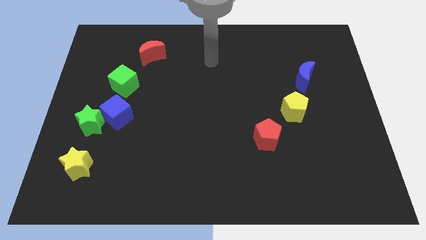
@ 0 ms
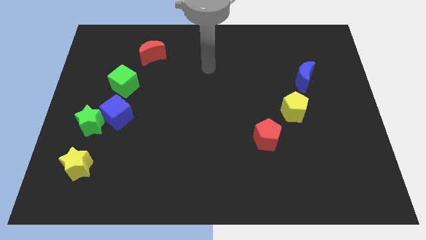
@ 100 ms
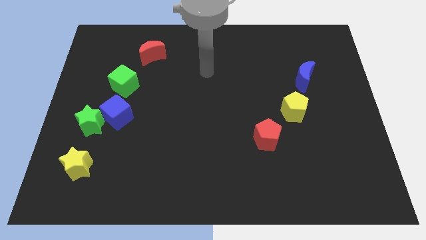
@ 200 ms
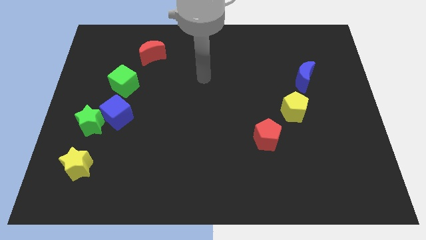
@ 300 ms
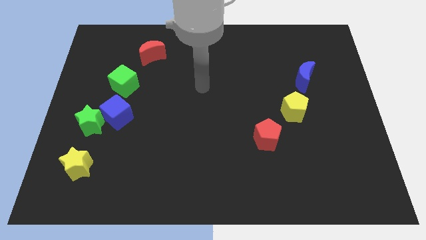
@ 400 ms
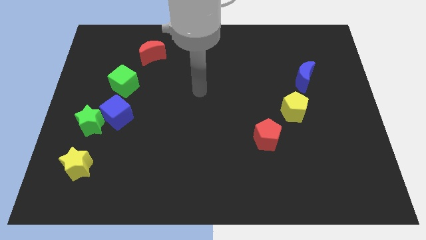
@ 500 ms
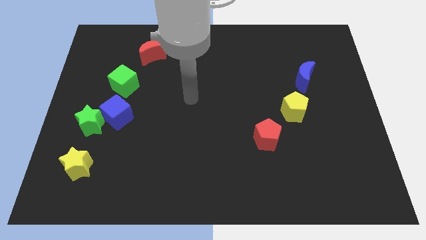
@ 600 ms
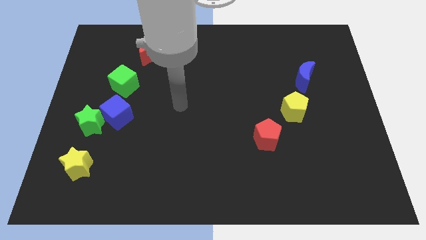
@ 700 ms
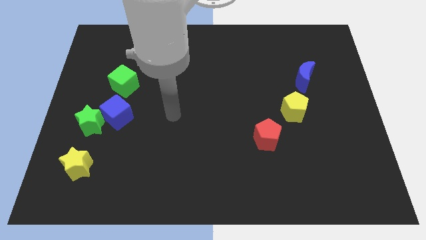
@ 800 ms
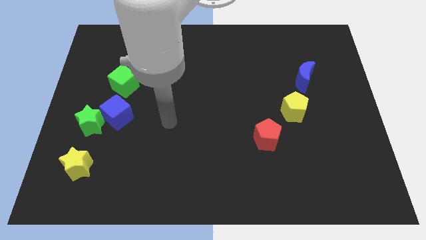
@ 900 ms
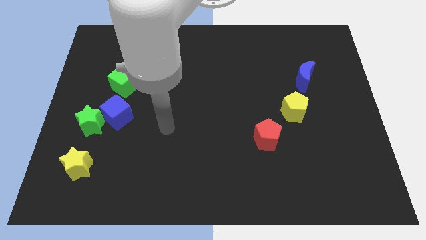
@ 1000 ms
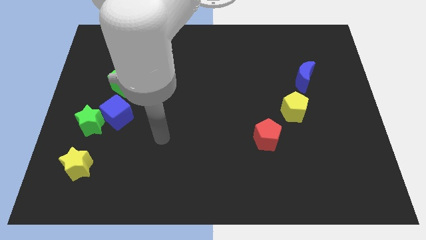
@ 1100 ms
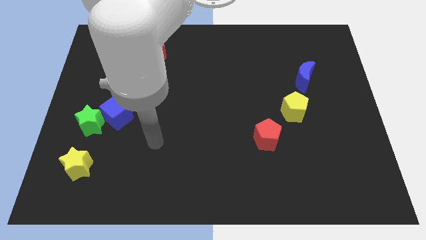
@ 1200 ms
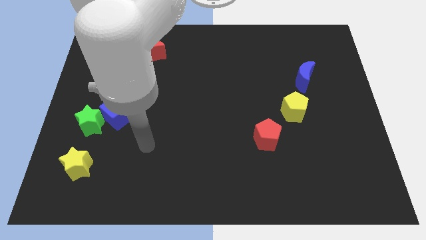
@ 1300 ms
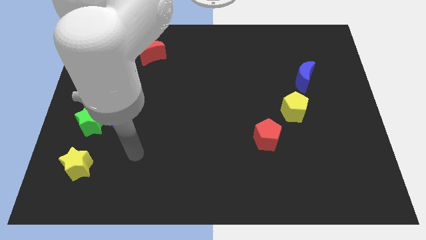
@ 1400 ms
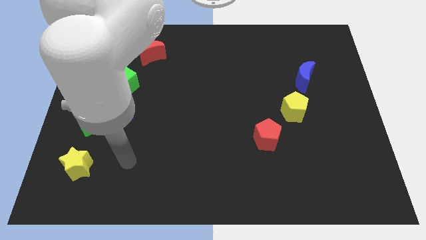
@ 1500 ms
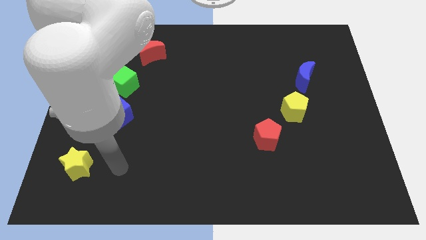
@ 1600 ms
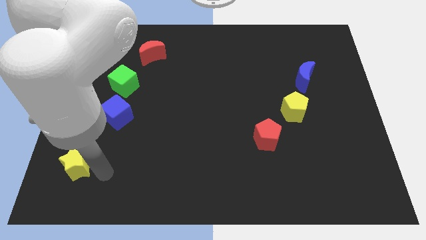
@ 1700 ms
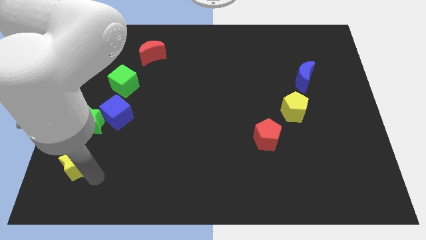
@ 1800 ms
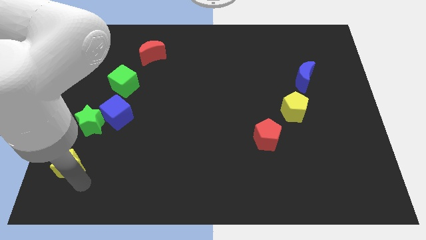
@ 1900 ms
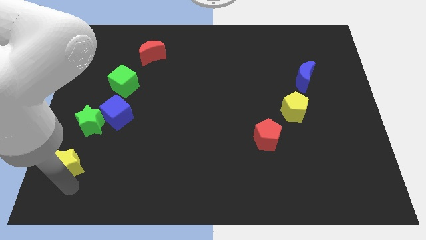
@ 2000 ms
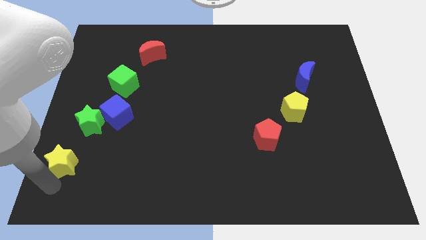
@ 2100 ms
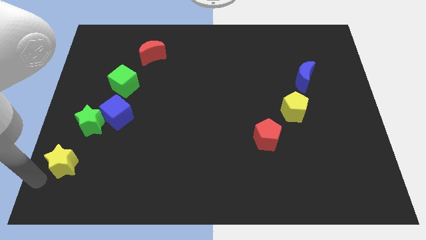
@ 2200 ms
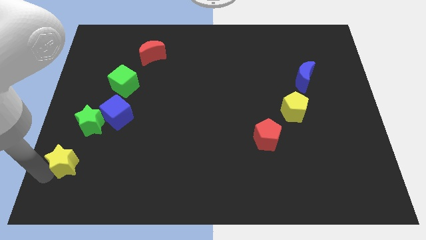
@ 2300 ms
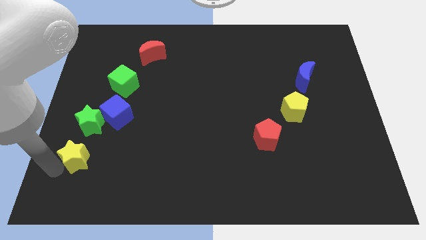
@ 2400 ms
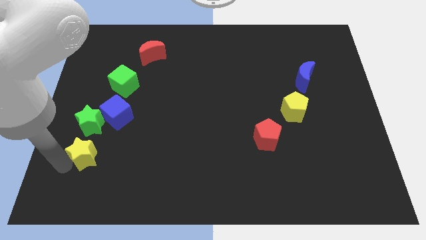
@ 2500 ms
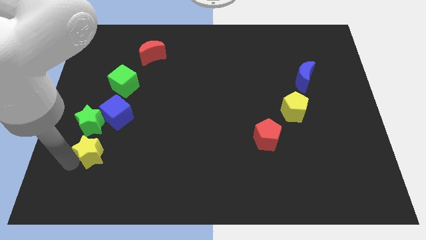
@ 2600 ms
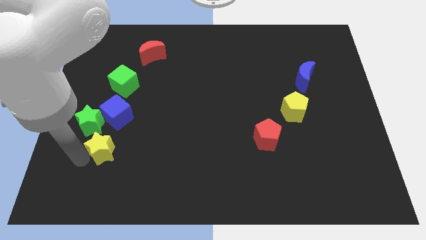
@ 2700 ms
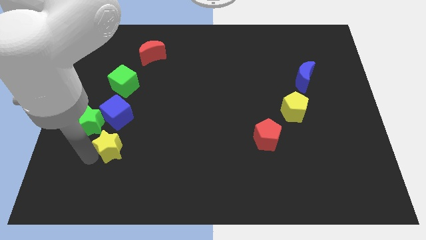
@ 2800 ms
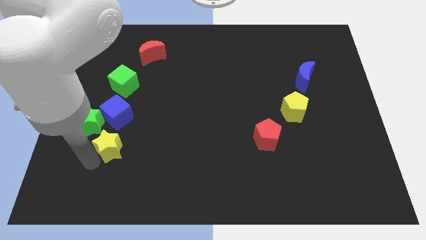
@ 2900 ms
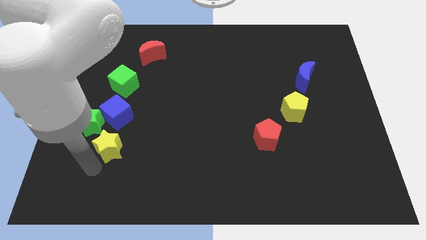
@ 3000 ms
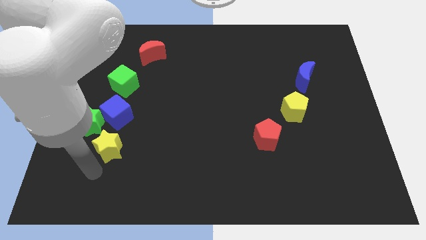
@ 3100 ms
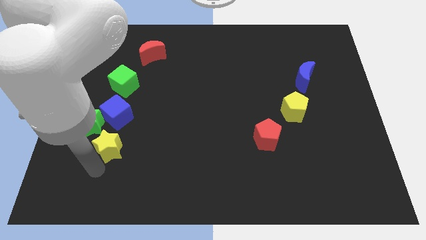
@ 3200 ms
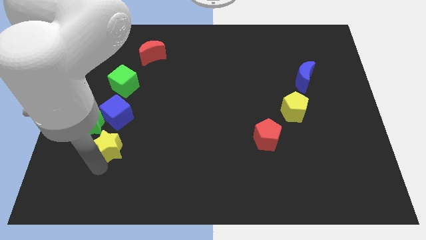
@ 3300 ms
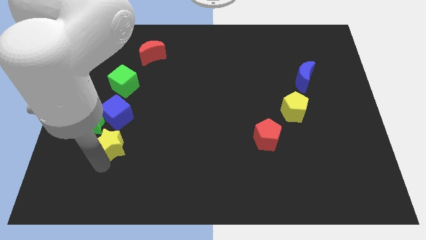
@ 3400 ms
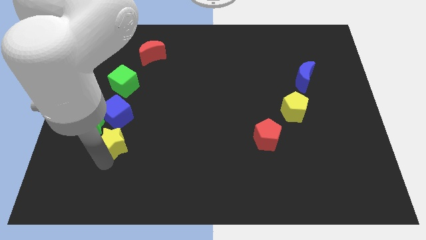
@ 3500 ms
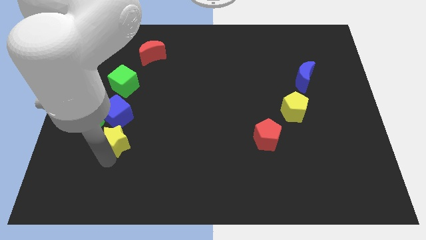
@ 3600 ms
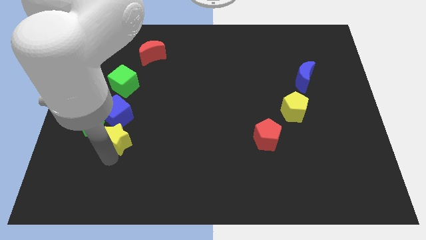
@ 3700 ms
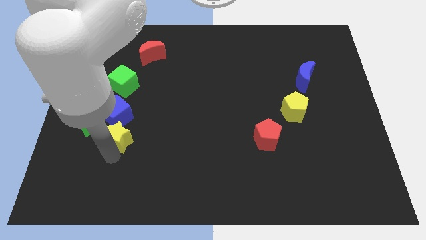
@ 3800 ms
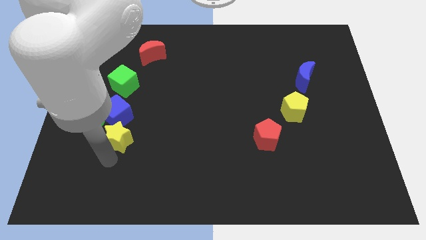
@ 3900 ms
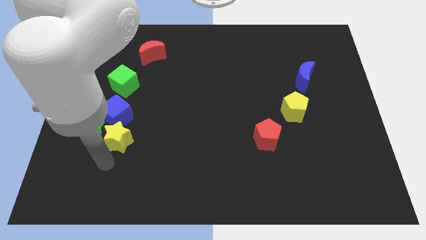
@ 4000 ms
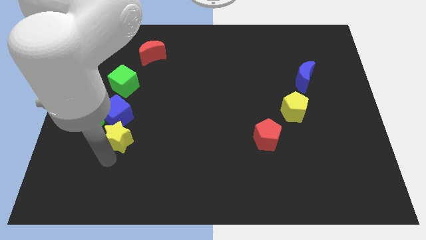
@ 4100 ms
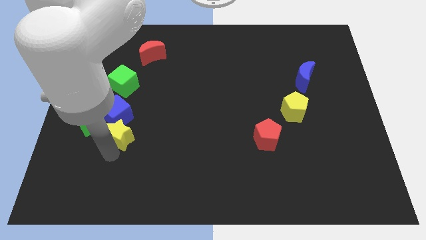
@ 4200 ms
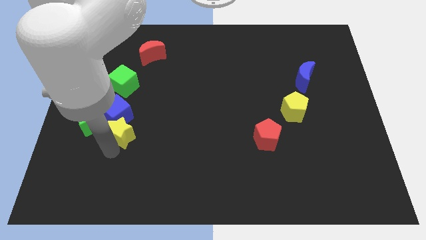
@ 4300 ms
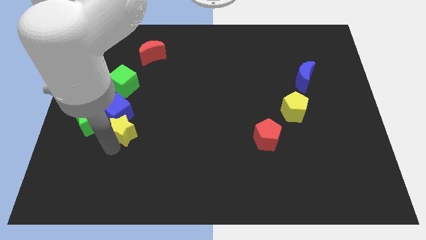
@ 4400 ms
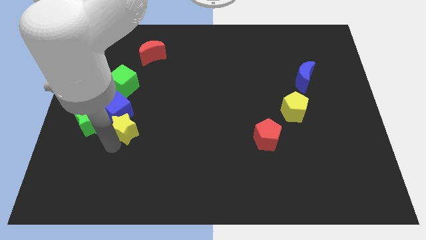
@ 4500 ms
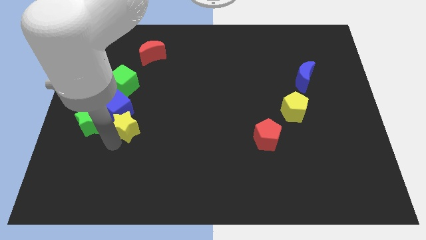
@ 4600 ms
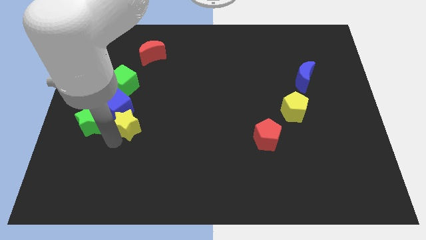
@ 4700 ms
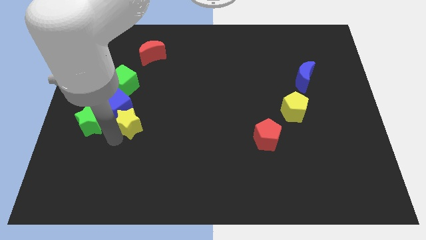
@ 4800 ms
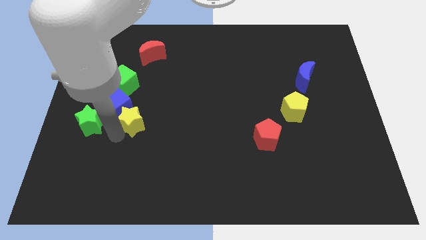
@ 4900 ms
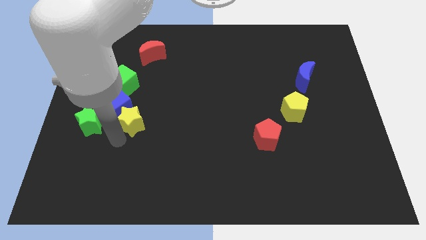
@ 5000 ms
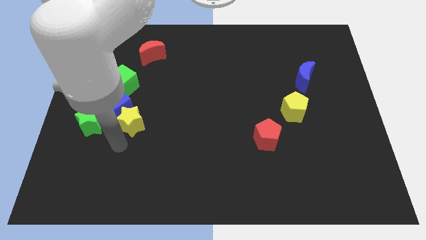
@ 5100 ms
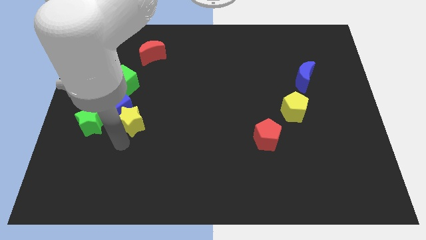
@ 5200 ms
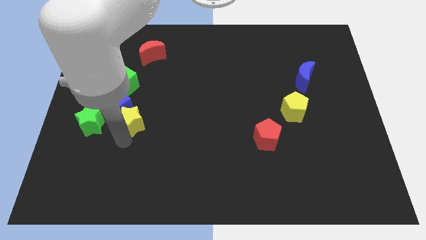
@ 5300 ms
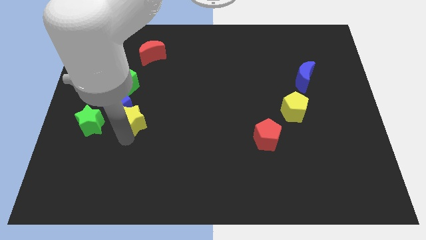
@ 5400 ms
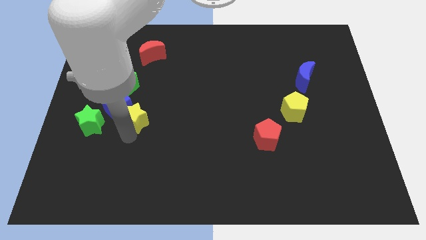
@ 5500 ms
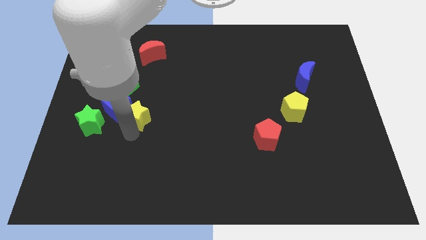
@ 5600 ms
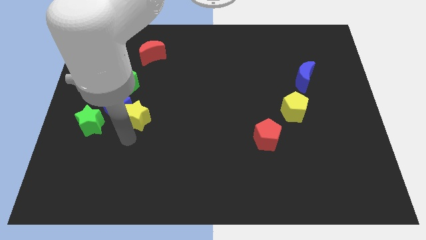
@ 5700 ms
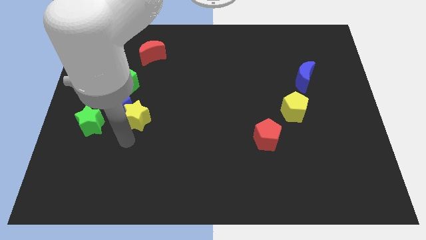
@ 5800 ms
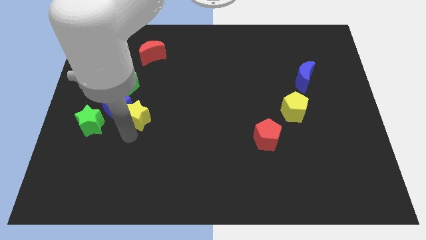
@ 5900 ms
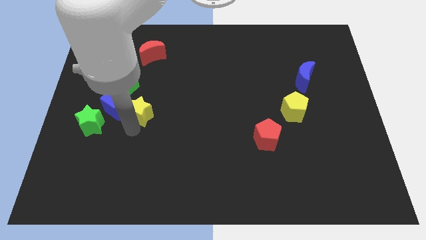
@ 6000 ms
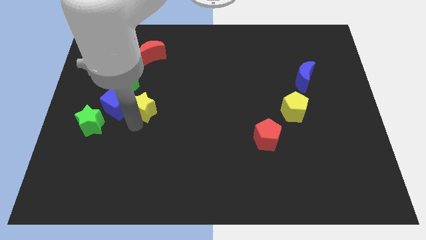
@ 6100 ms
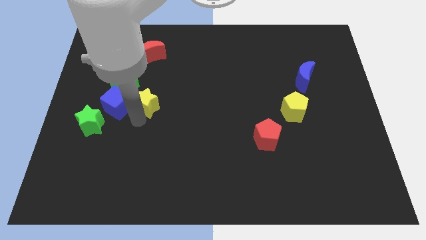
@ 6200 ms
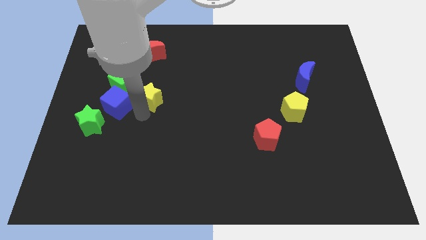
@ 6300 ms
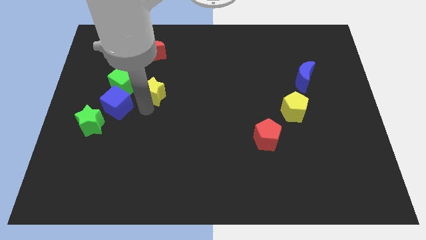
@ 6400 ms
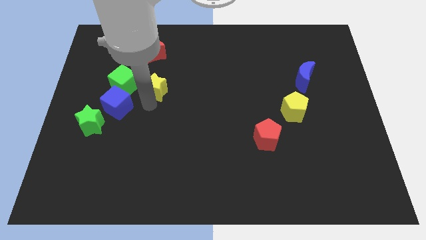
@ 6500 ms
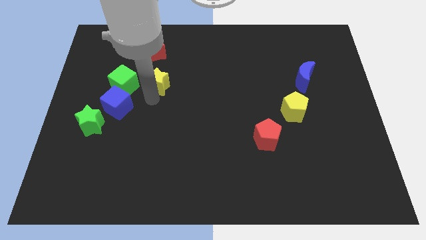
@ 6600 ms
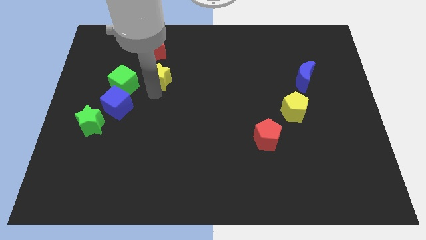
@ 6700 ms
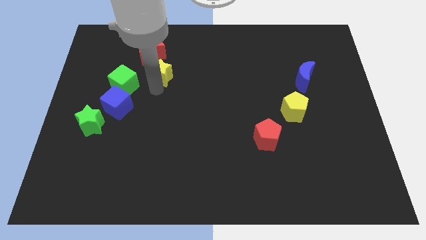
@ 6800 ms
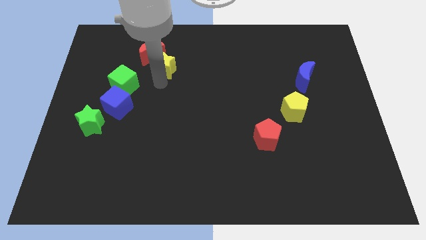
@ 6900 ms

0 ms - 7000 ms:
put the yellow star towards the red moon
